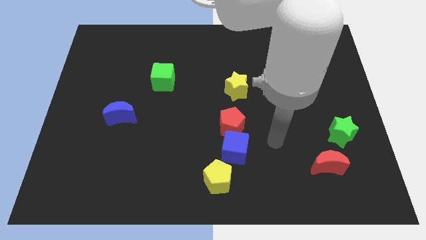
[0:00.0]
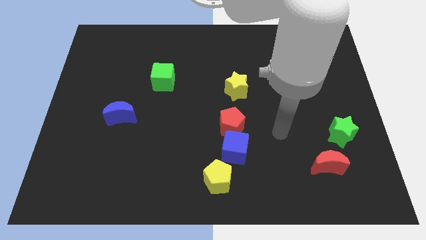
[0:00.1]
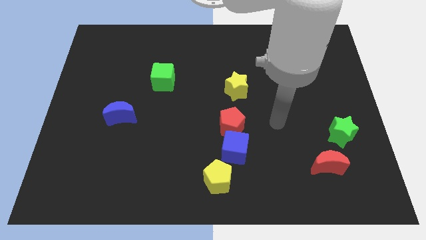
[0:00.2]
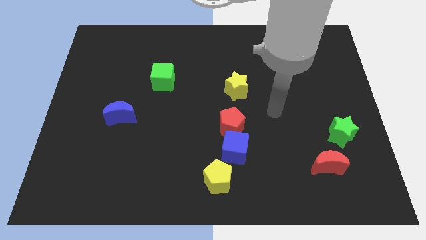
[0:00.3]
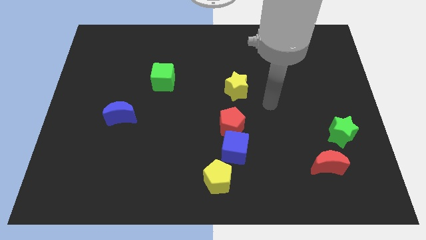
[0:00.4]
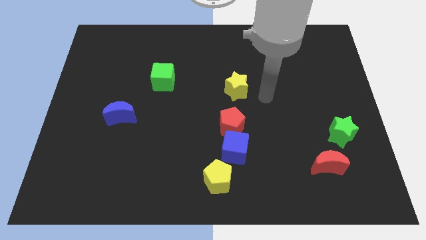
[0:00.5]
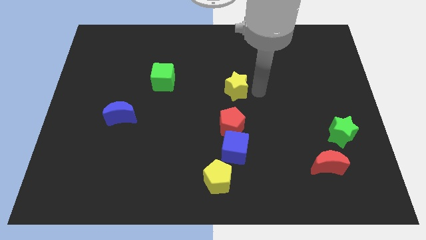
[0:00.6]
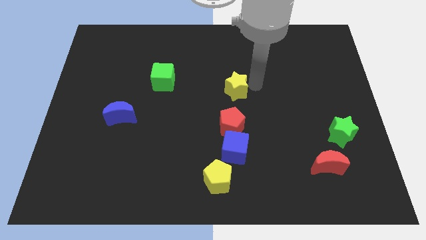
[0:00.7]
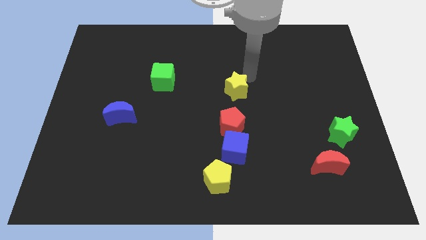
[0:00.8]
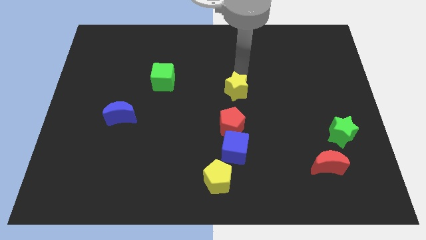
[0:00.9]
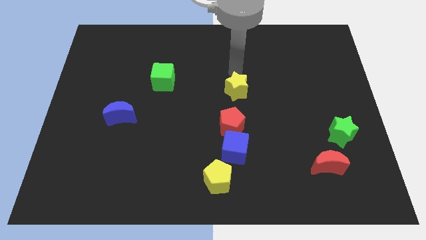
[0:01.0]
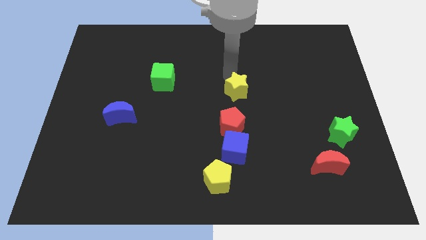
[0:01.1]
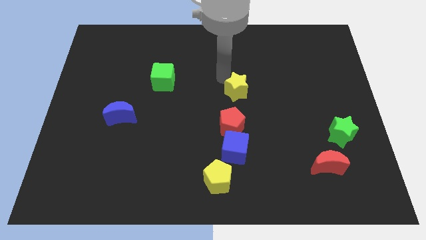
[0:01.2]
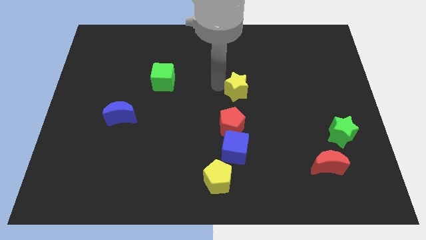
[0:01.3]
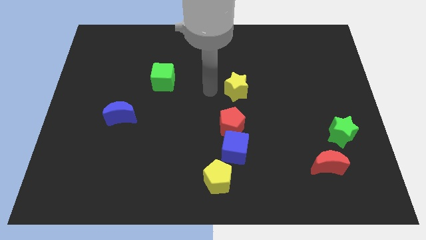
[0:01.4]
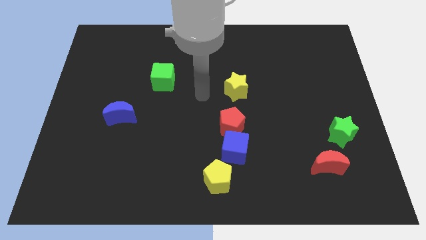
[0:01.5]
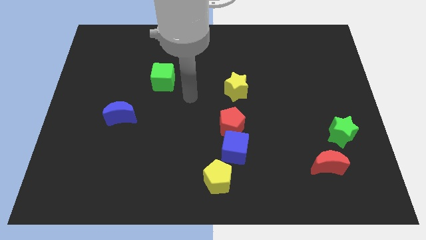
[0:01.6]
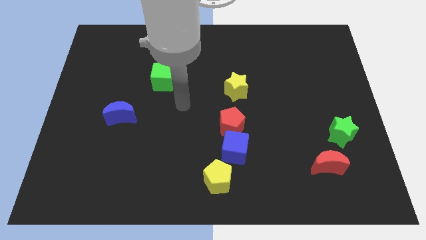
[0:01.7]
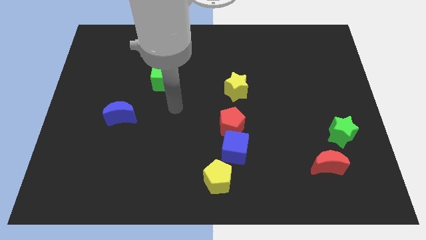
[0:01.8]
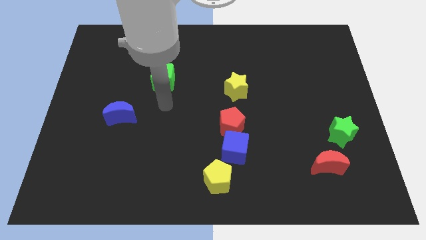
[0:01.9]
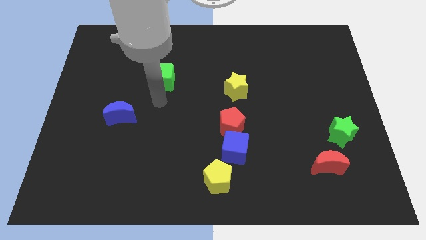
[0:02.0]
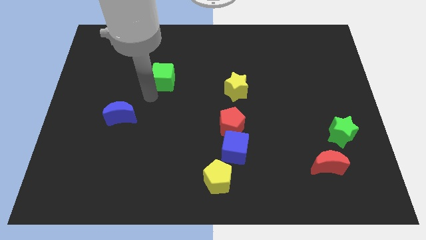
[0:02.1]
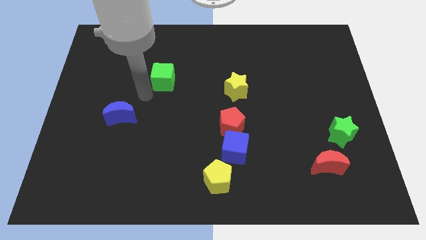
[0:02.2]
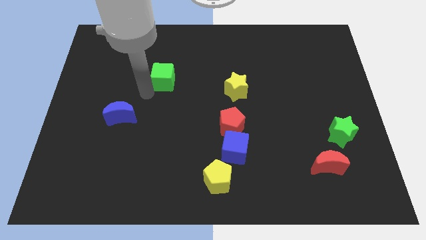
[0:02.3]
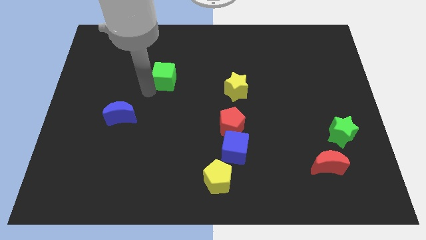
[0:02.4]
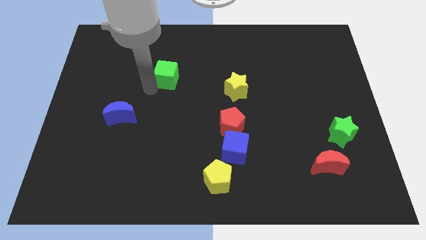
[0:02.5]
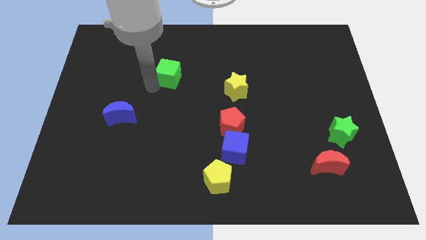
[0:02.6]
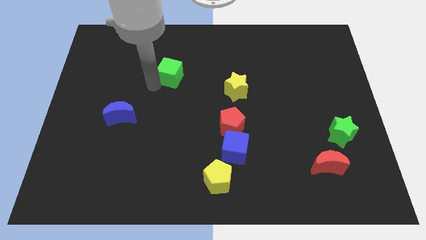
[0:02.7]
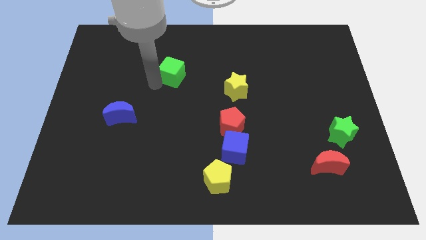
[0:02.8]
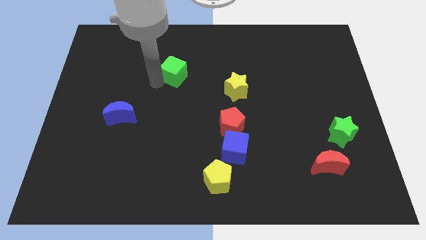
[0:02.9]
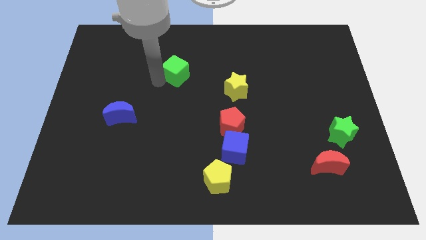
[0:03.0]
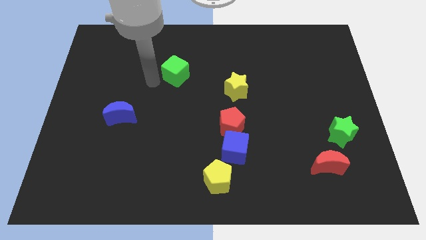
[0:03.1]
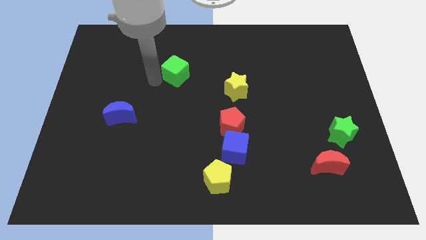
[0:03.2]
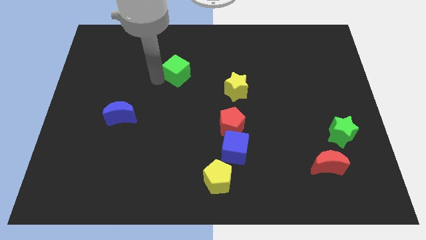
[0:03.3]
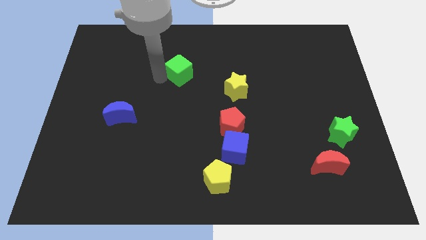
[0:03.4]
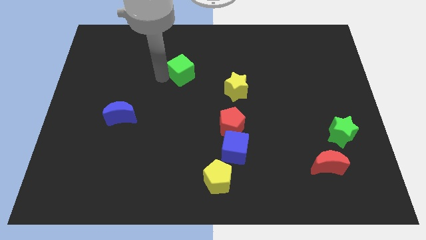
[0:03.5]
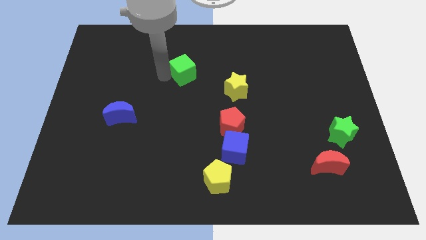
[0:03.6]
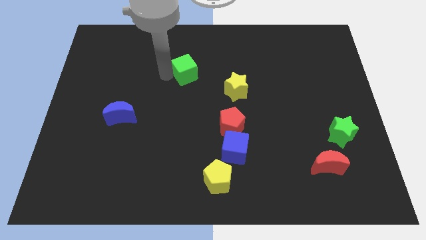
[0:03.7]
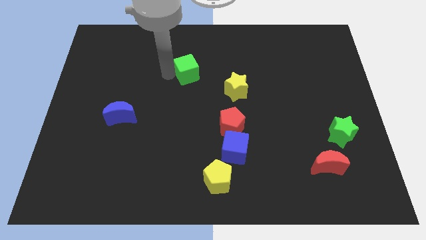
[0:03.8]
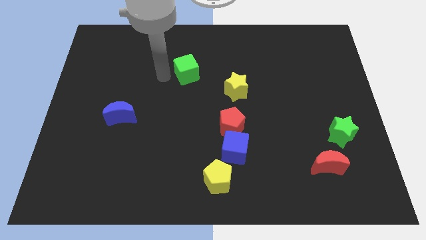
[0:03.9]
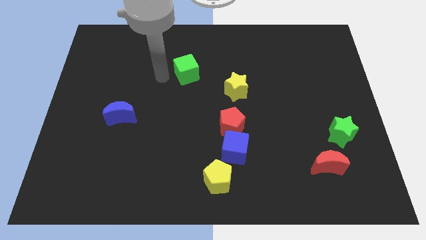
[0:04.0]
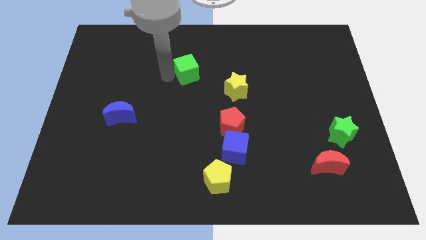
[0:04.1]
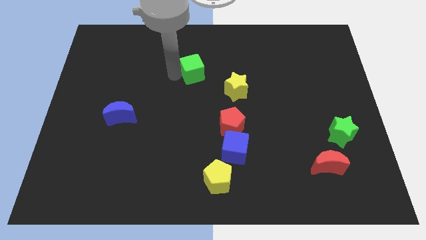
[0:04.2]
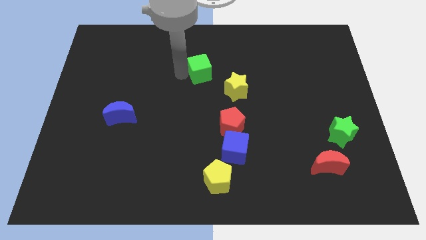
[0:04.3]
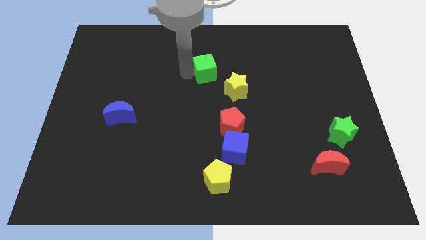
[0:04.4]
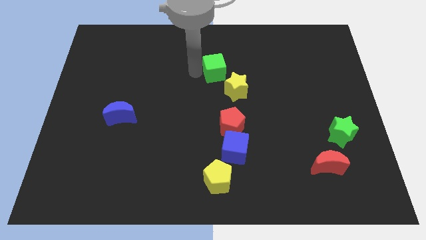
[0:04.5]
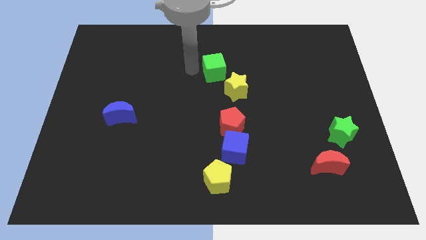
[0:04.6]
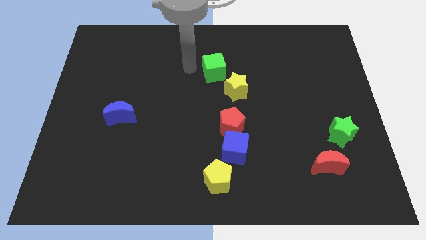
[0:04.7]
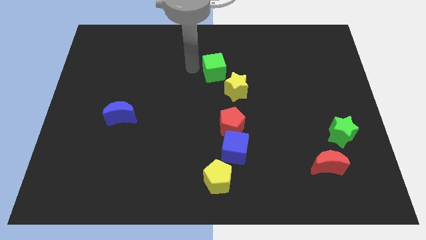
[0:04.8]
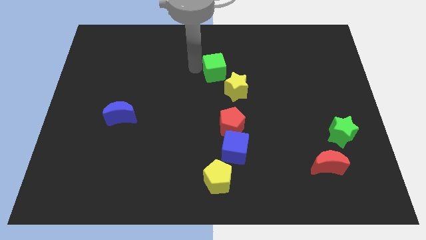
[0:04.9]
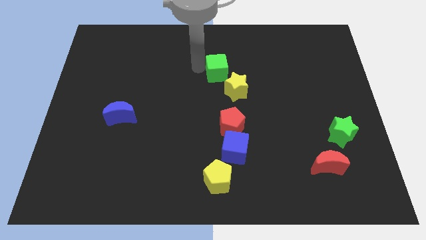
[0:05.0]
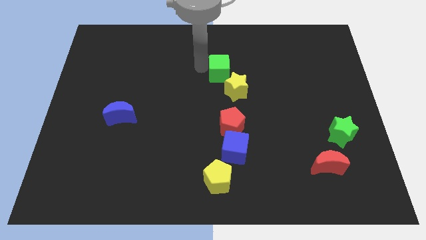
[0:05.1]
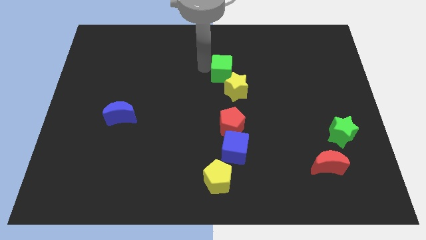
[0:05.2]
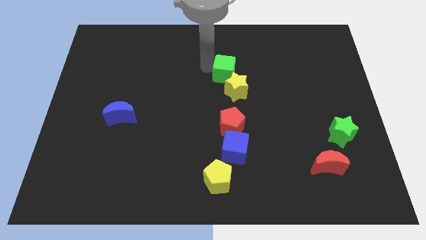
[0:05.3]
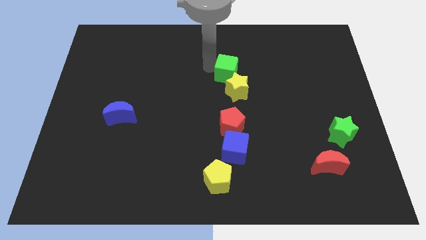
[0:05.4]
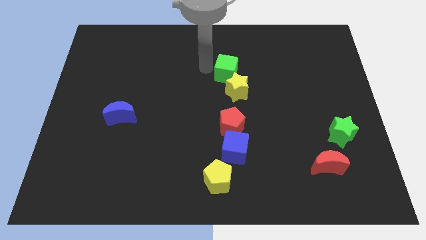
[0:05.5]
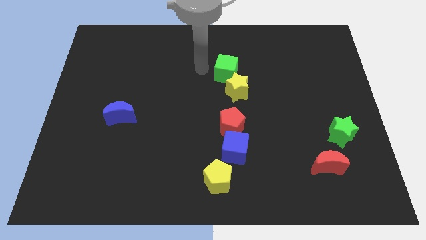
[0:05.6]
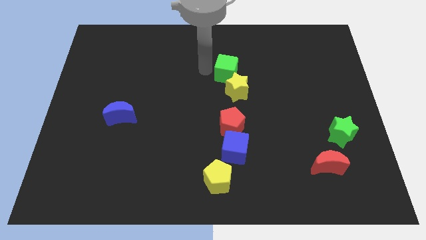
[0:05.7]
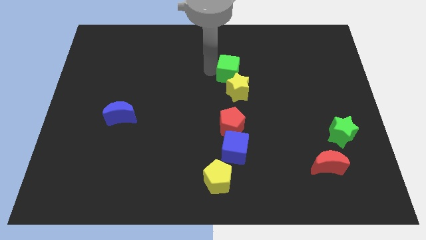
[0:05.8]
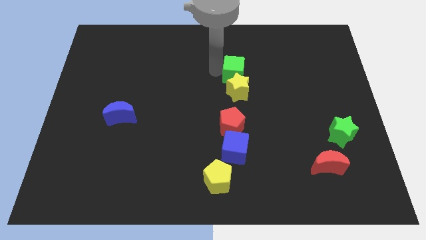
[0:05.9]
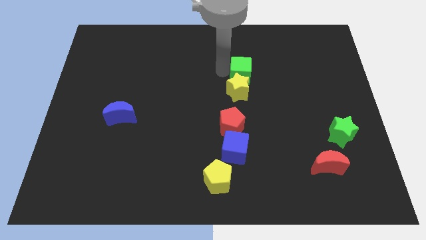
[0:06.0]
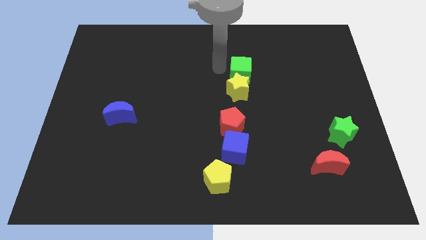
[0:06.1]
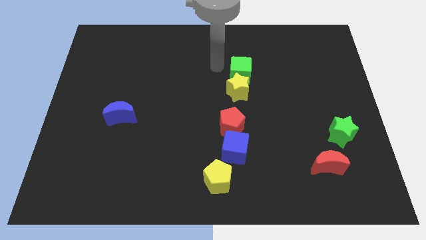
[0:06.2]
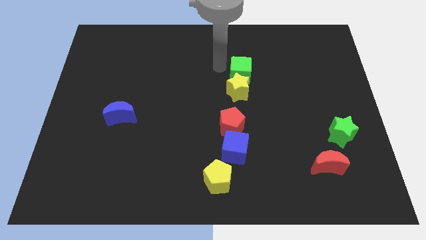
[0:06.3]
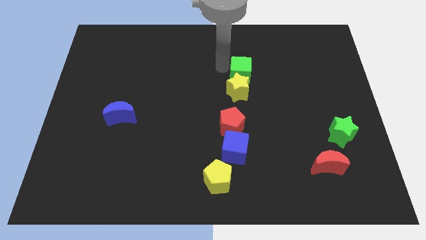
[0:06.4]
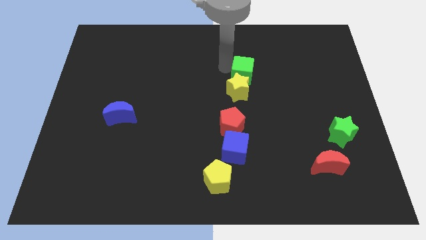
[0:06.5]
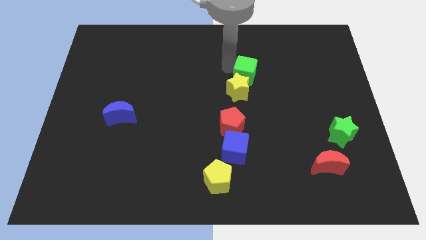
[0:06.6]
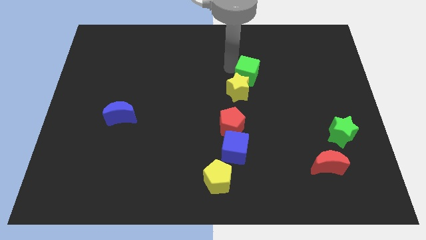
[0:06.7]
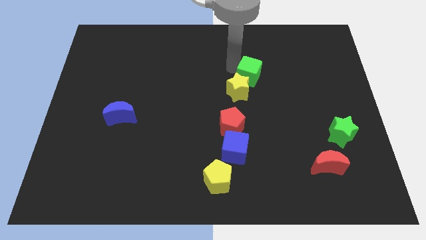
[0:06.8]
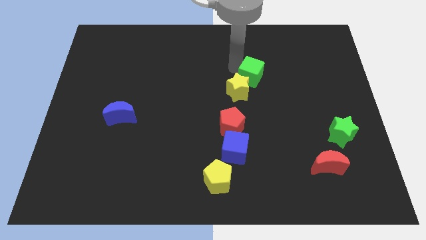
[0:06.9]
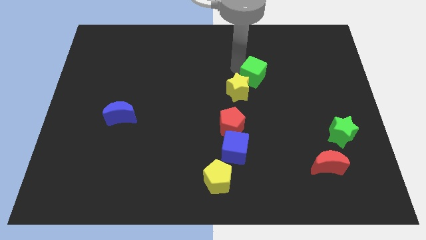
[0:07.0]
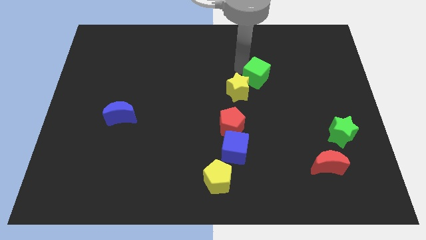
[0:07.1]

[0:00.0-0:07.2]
put the green cube to the right of the yellow star

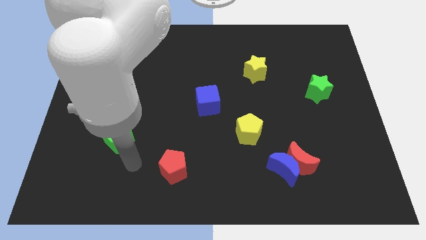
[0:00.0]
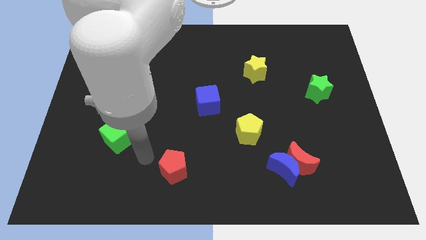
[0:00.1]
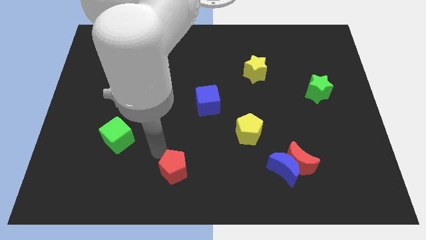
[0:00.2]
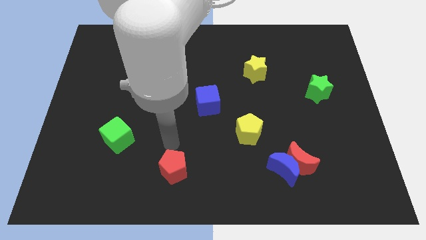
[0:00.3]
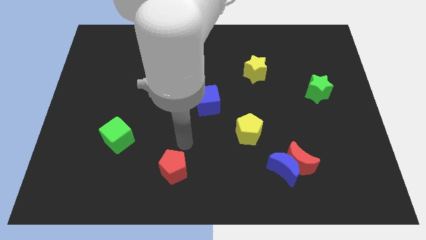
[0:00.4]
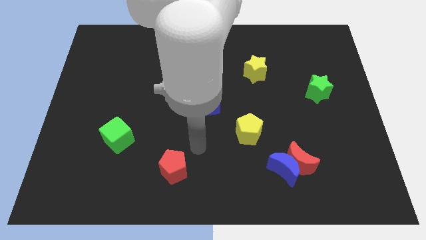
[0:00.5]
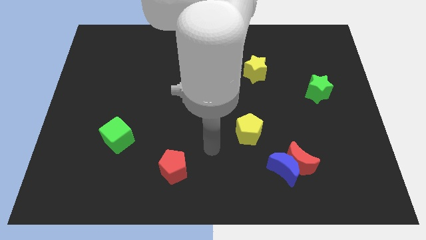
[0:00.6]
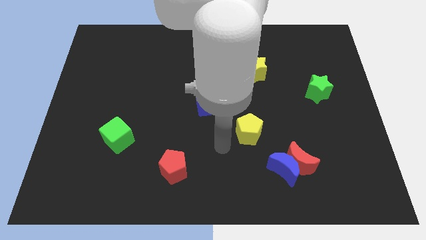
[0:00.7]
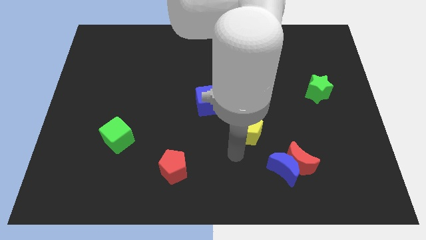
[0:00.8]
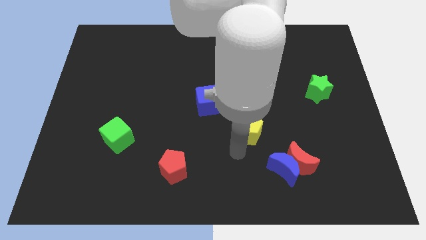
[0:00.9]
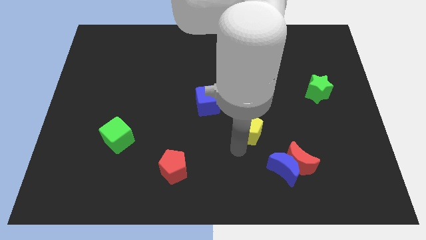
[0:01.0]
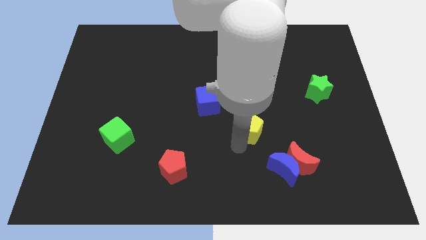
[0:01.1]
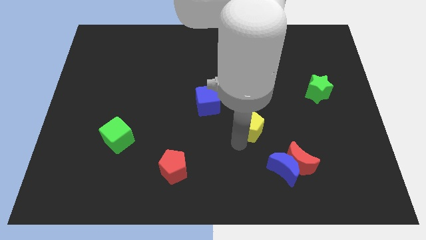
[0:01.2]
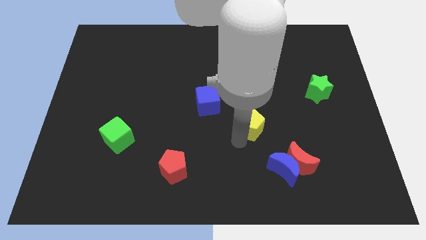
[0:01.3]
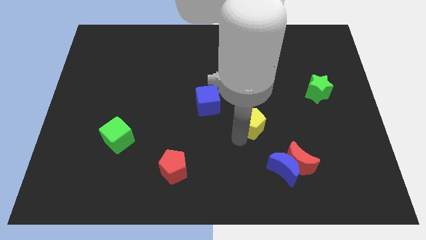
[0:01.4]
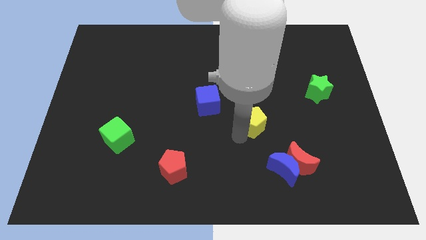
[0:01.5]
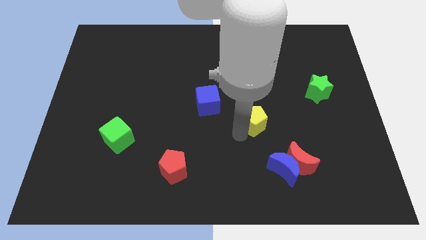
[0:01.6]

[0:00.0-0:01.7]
put the yellow pentagon below the yellow star
